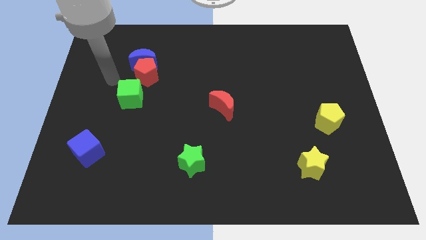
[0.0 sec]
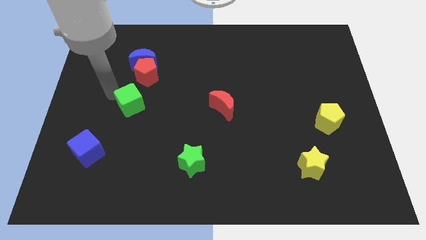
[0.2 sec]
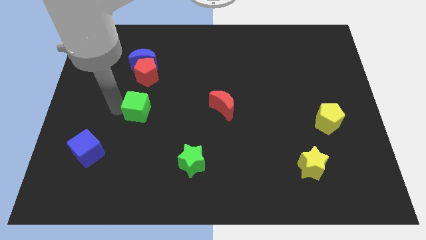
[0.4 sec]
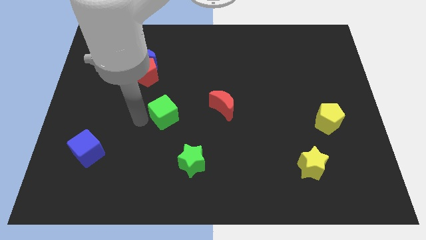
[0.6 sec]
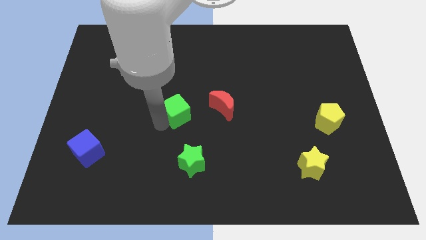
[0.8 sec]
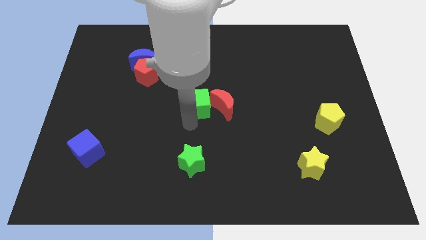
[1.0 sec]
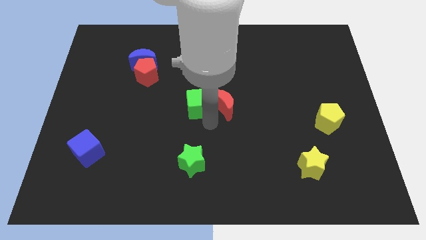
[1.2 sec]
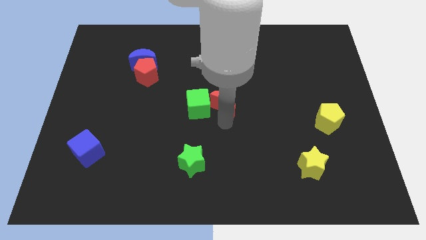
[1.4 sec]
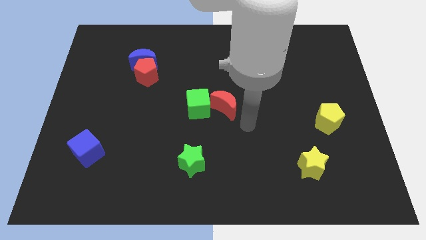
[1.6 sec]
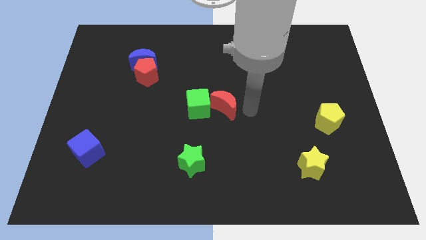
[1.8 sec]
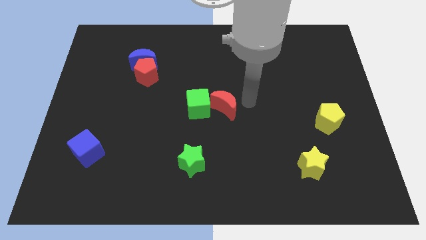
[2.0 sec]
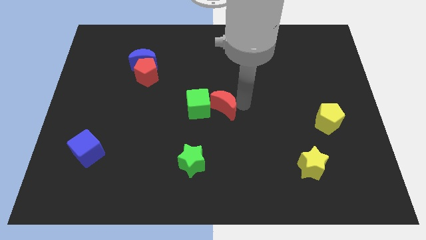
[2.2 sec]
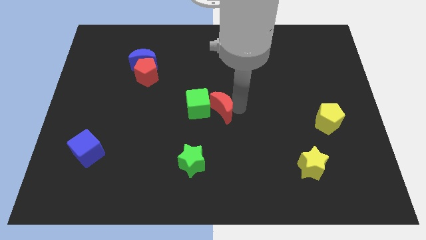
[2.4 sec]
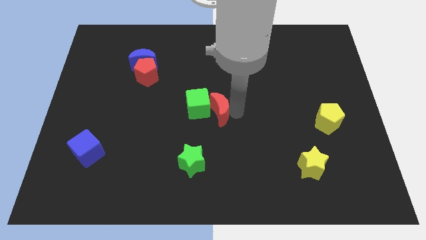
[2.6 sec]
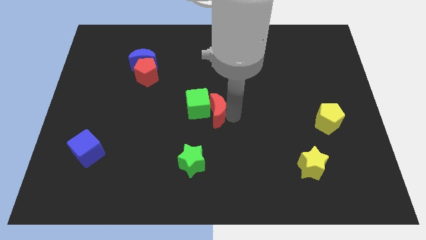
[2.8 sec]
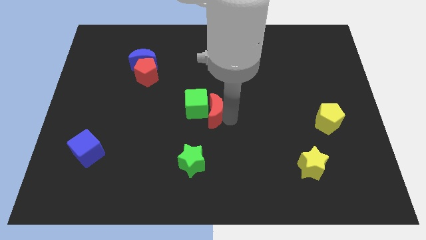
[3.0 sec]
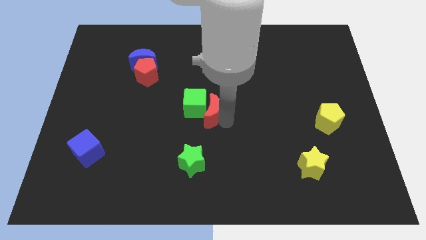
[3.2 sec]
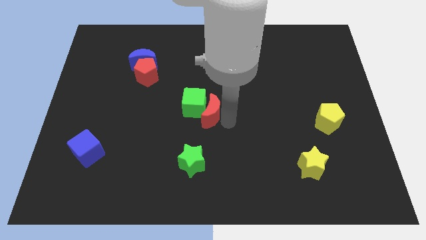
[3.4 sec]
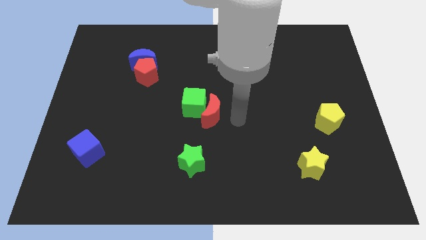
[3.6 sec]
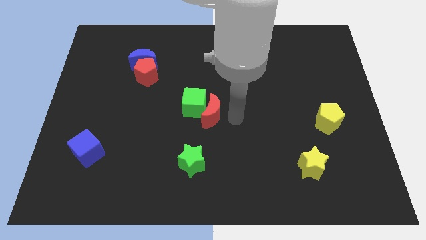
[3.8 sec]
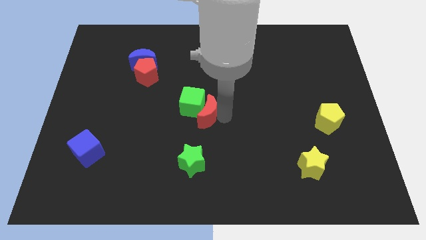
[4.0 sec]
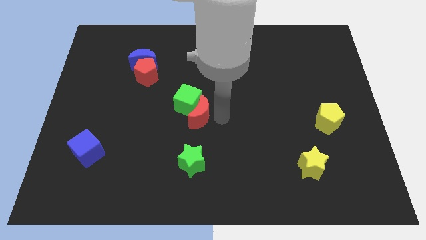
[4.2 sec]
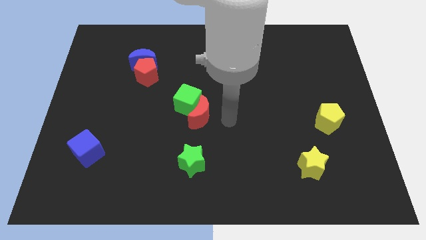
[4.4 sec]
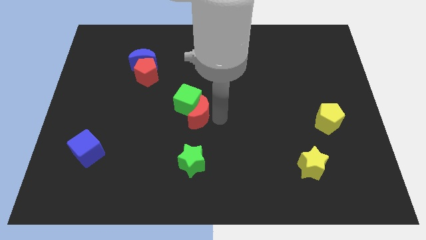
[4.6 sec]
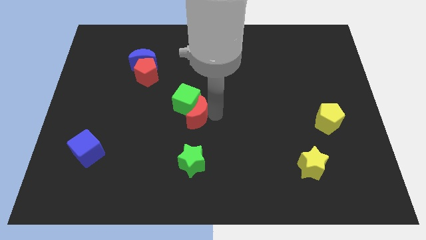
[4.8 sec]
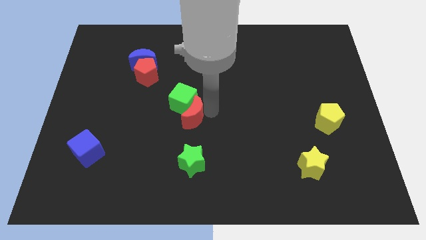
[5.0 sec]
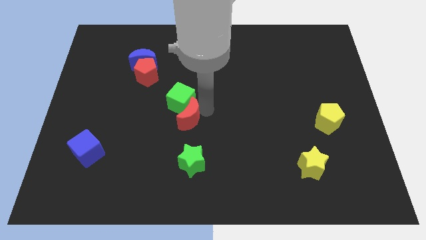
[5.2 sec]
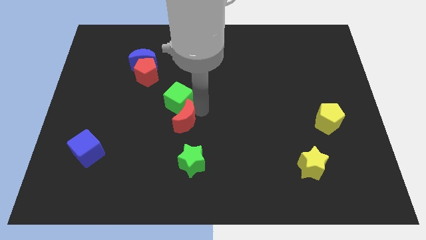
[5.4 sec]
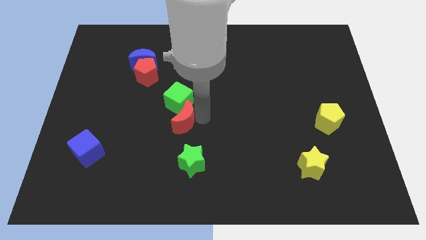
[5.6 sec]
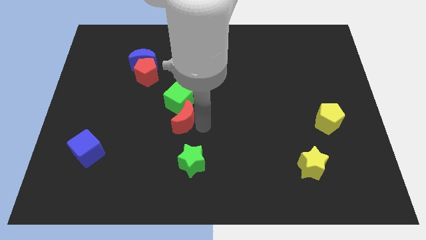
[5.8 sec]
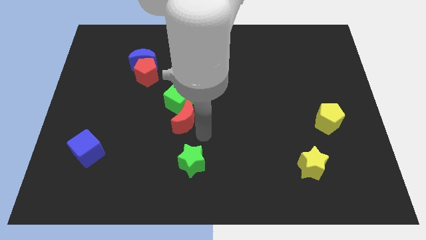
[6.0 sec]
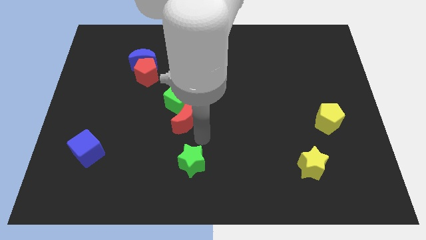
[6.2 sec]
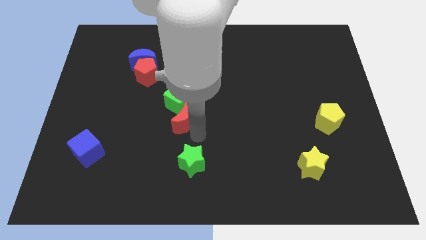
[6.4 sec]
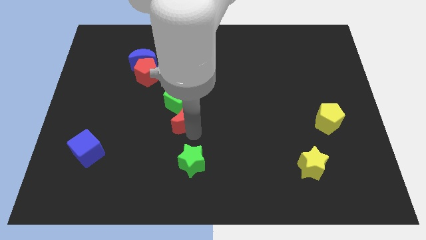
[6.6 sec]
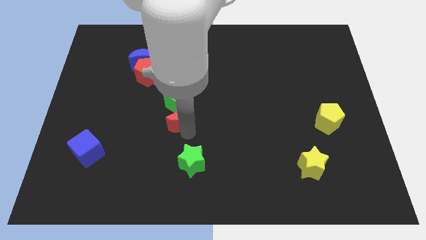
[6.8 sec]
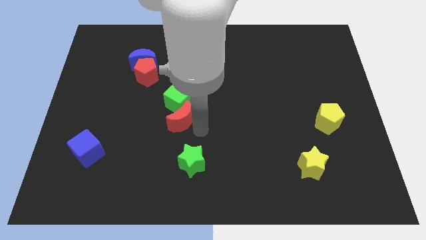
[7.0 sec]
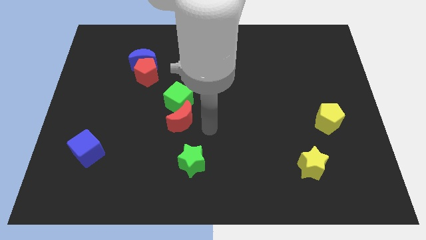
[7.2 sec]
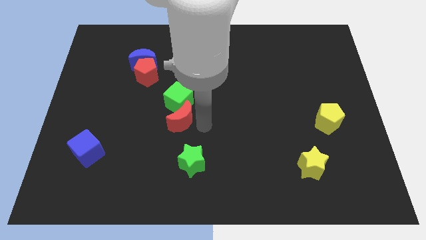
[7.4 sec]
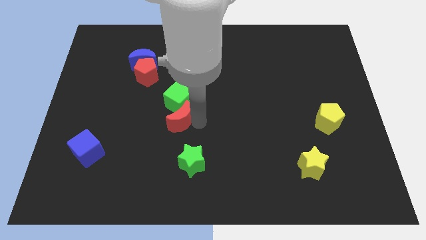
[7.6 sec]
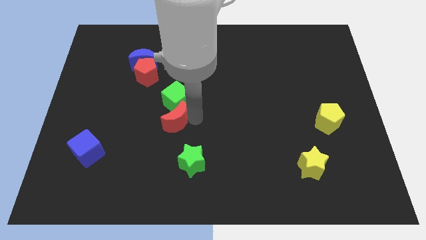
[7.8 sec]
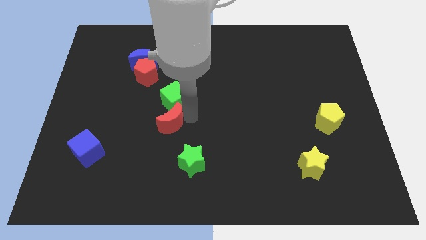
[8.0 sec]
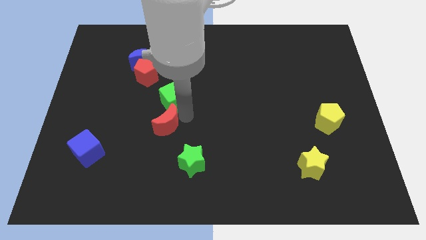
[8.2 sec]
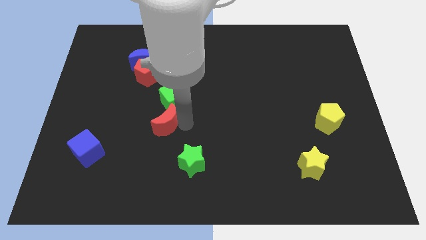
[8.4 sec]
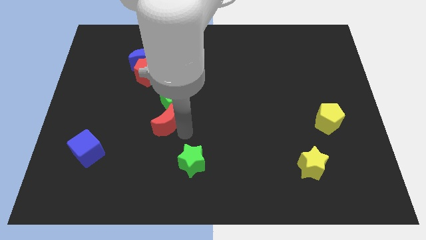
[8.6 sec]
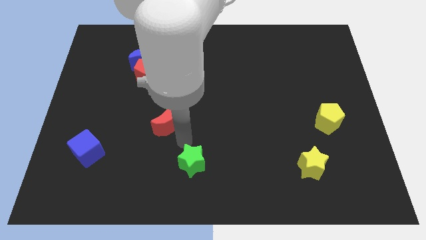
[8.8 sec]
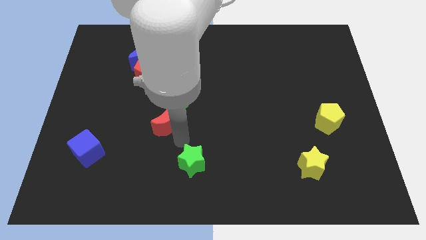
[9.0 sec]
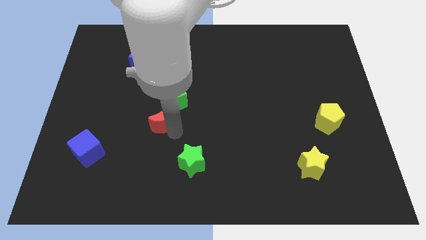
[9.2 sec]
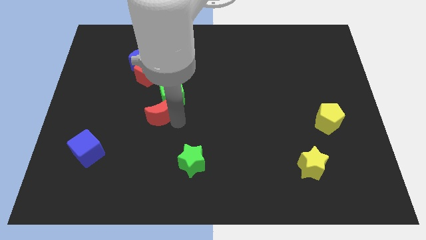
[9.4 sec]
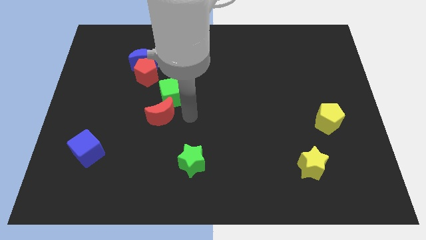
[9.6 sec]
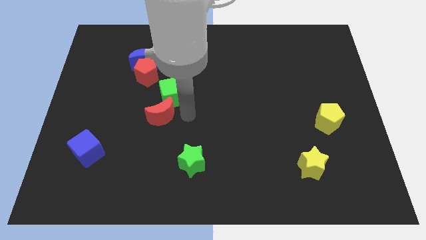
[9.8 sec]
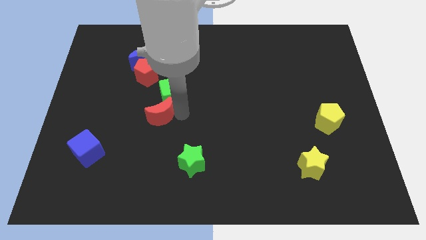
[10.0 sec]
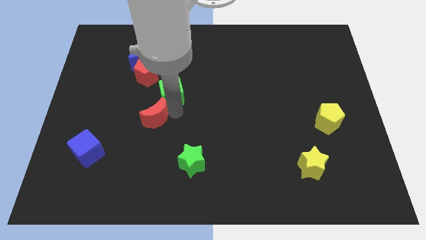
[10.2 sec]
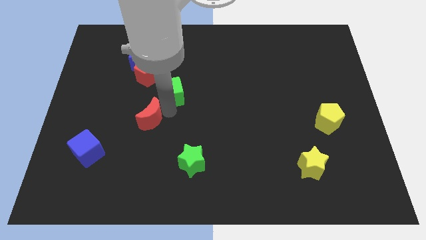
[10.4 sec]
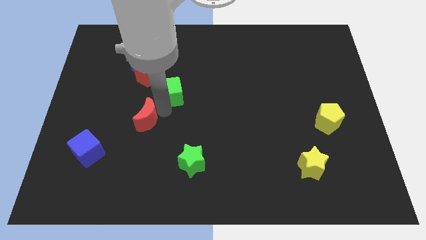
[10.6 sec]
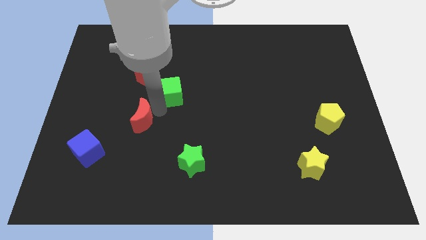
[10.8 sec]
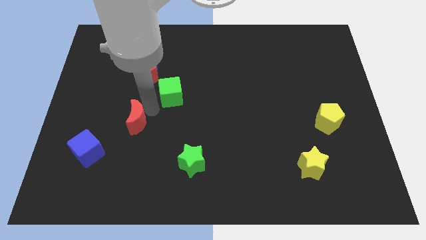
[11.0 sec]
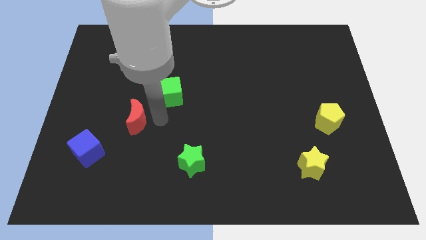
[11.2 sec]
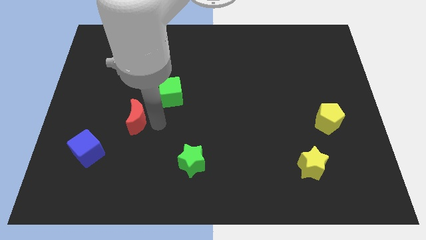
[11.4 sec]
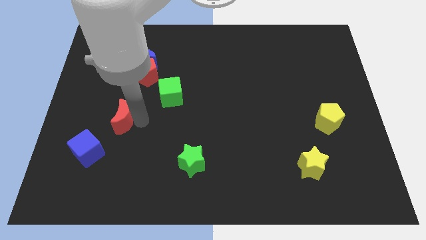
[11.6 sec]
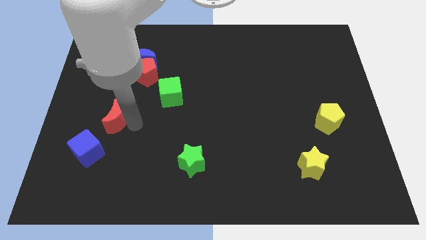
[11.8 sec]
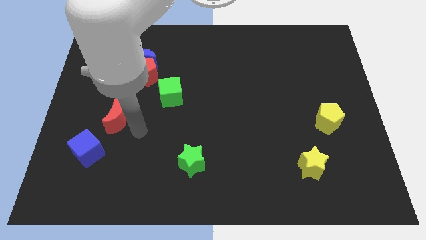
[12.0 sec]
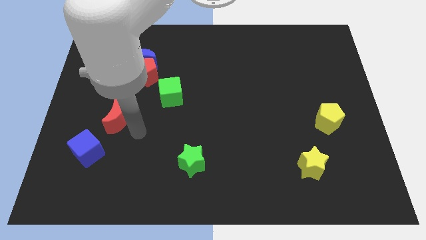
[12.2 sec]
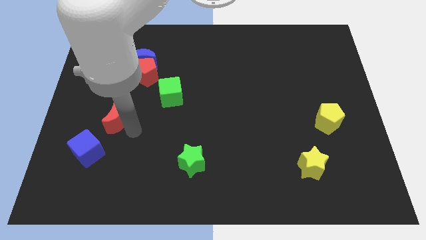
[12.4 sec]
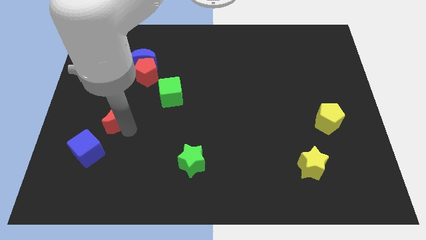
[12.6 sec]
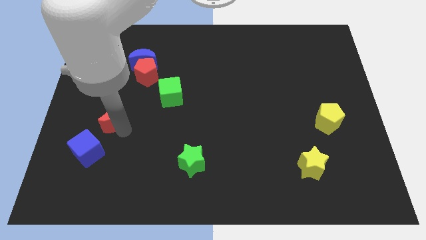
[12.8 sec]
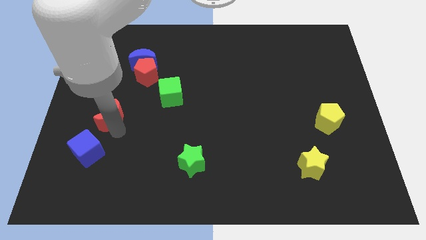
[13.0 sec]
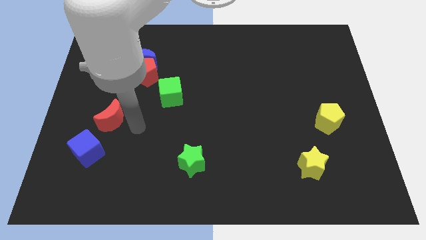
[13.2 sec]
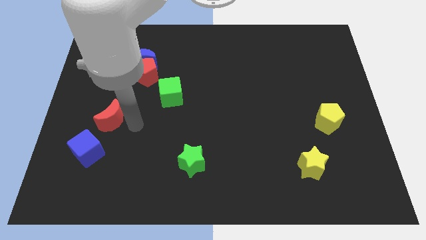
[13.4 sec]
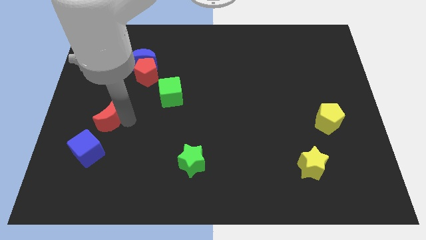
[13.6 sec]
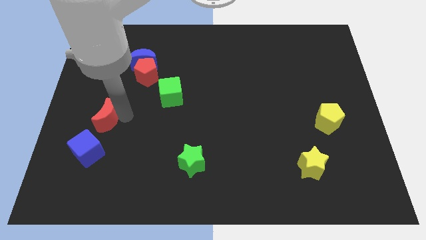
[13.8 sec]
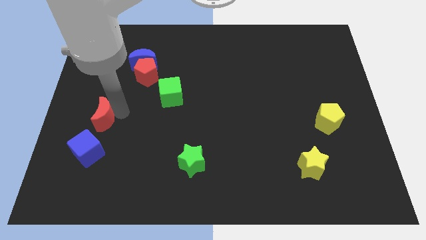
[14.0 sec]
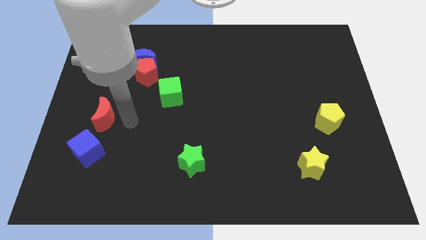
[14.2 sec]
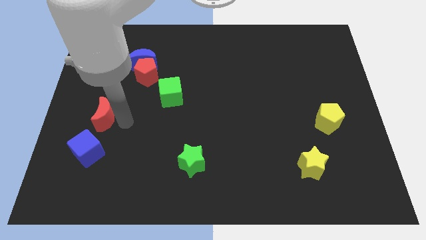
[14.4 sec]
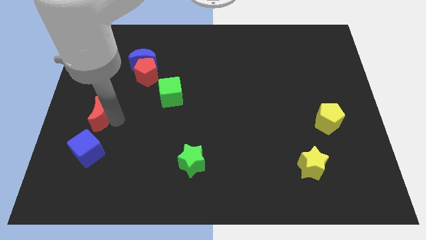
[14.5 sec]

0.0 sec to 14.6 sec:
move the red moon to the left side
